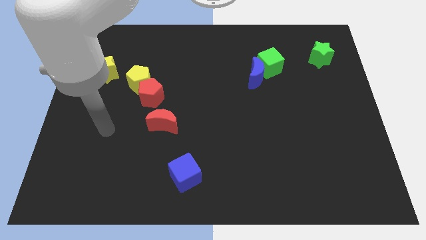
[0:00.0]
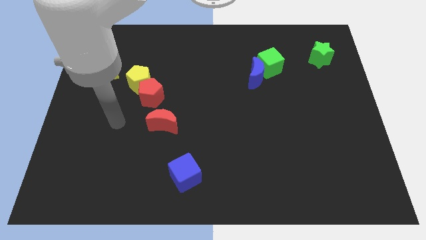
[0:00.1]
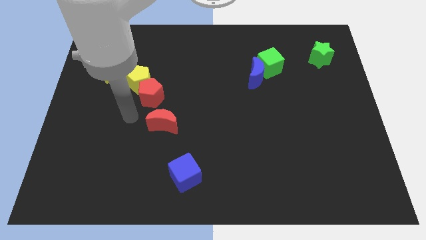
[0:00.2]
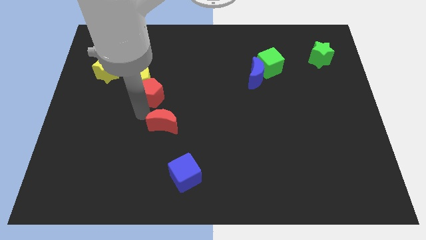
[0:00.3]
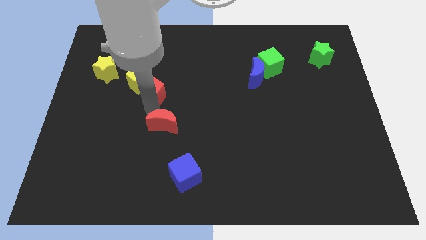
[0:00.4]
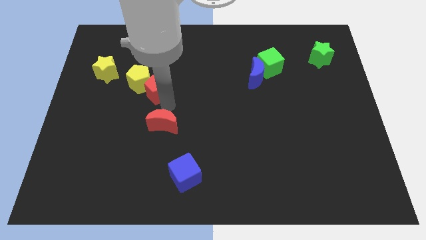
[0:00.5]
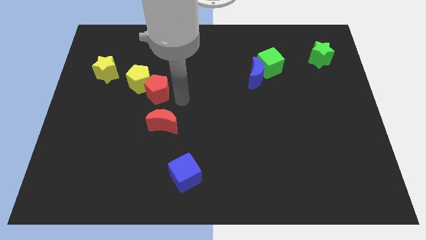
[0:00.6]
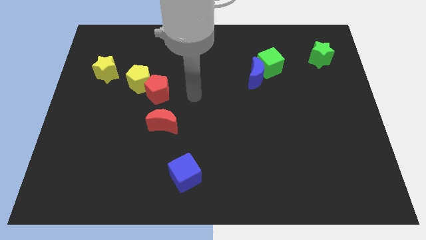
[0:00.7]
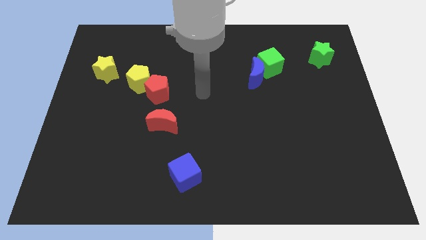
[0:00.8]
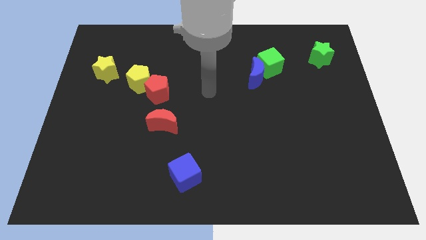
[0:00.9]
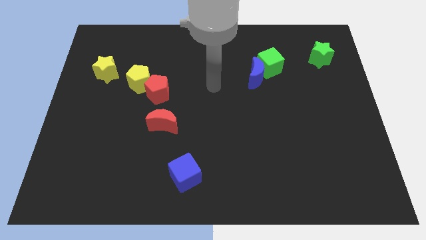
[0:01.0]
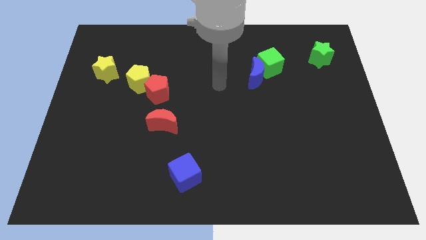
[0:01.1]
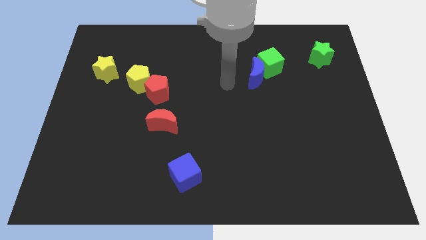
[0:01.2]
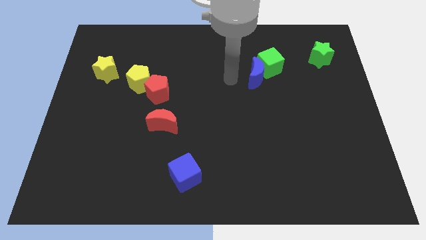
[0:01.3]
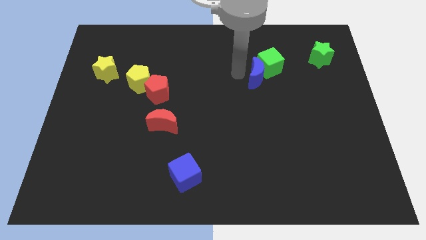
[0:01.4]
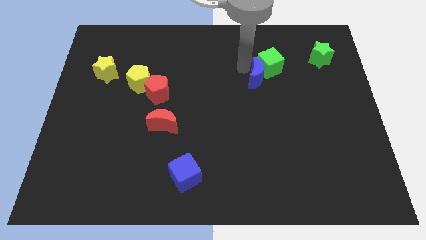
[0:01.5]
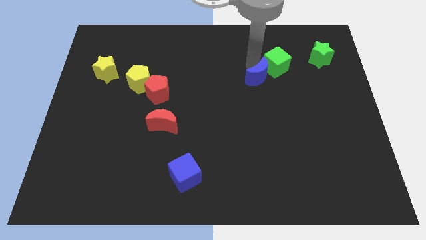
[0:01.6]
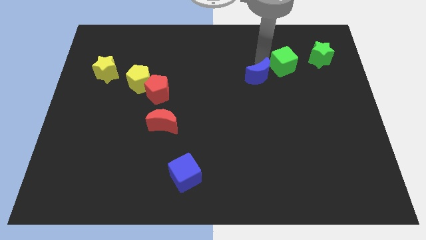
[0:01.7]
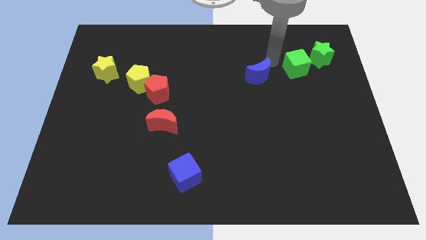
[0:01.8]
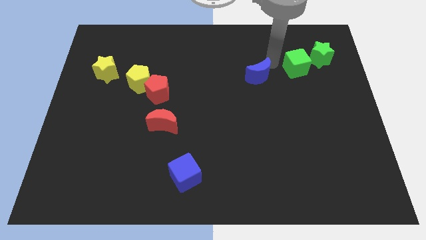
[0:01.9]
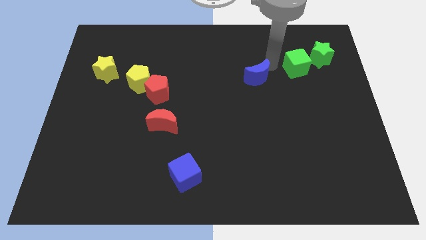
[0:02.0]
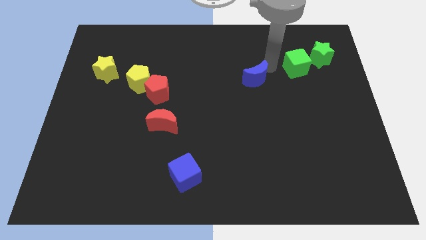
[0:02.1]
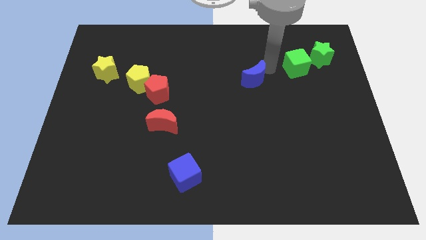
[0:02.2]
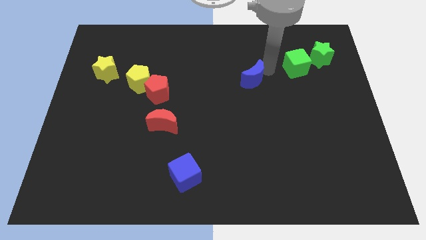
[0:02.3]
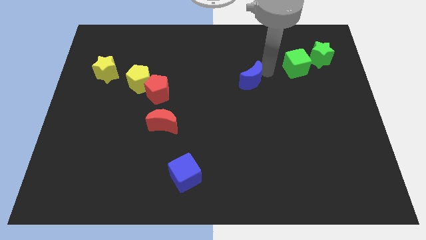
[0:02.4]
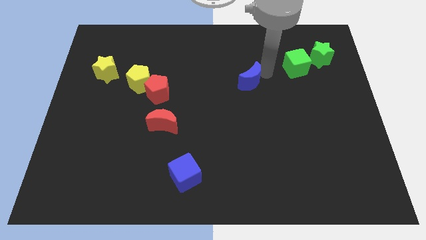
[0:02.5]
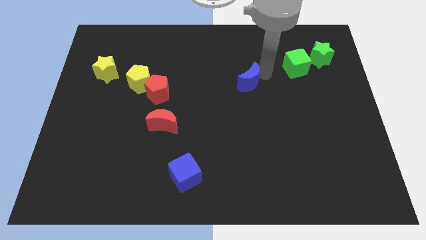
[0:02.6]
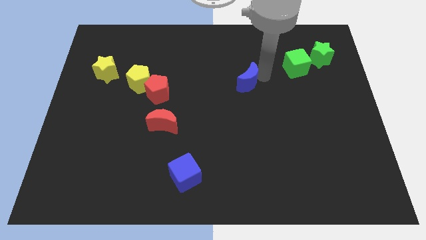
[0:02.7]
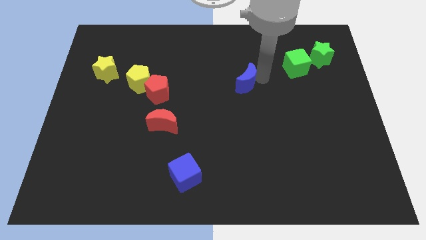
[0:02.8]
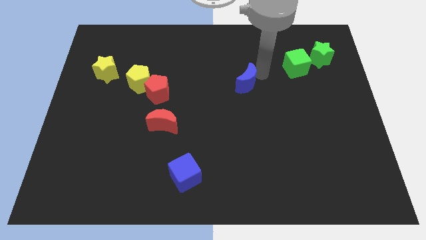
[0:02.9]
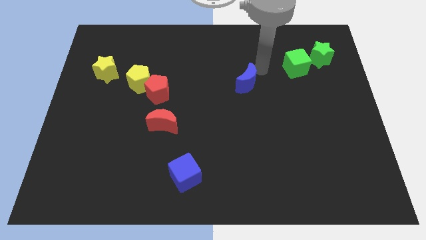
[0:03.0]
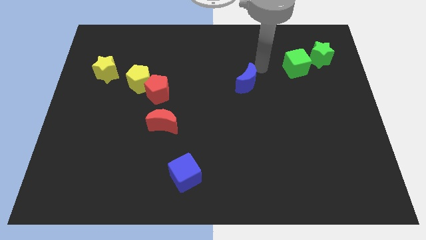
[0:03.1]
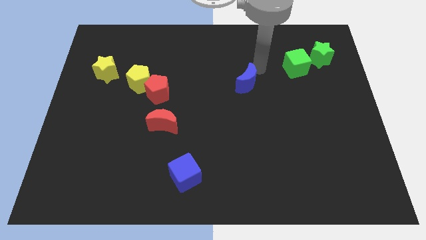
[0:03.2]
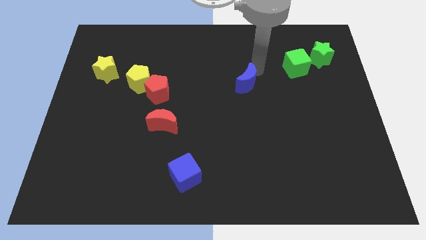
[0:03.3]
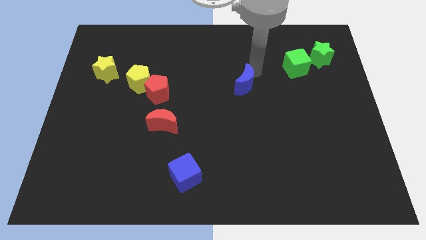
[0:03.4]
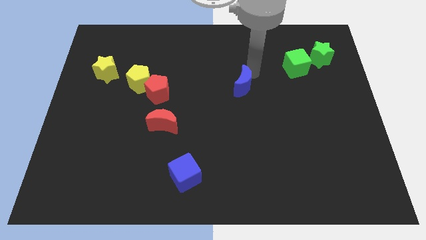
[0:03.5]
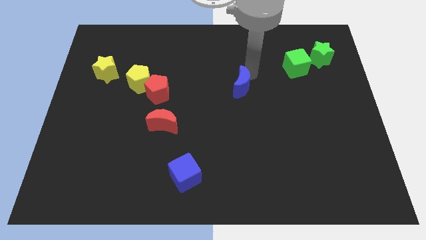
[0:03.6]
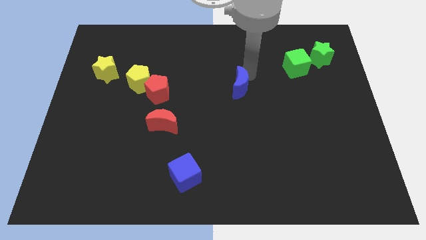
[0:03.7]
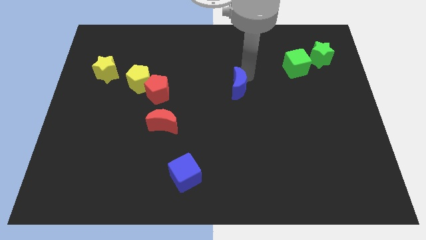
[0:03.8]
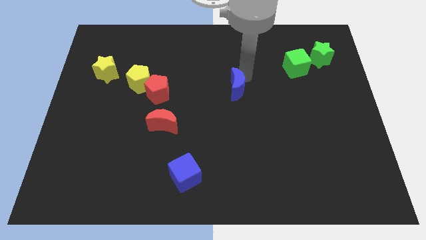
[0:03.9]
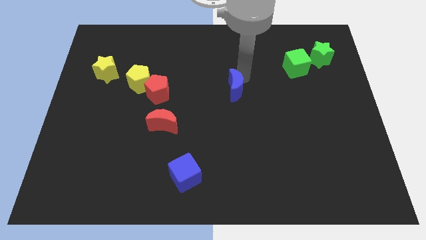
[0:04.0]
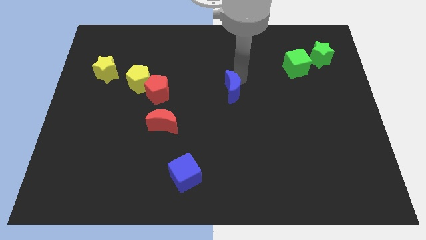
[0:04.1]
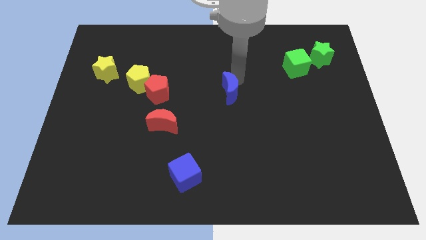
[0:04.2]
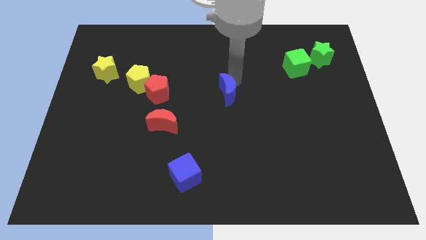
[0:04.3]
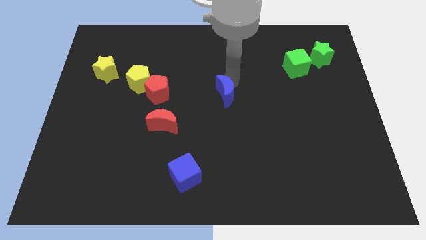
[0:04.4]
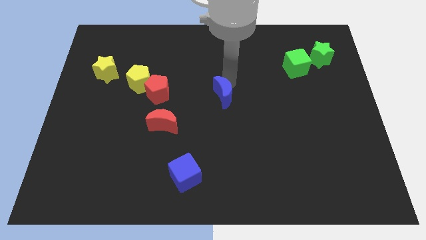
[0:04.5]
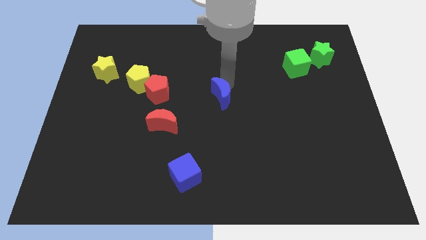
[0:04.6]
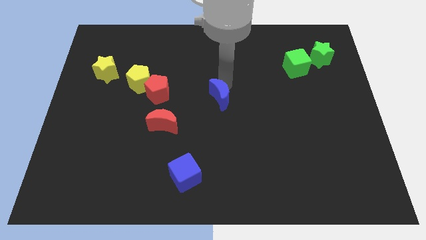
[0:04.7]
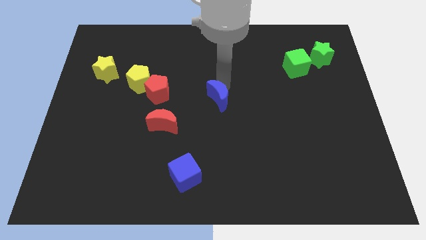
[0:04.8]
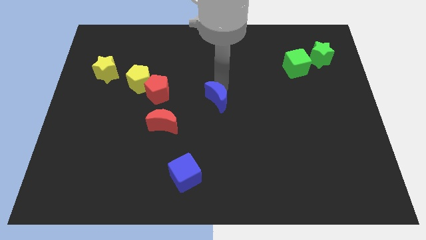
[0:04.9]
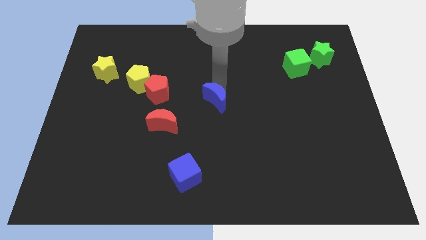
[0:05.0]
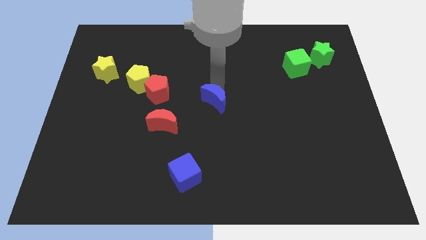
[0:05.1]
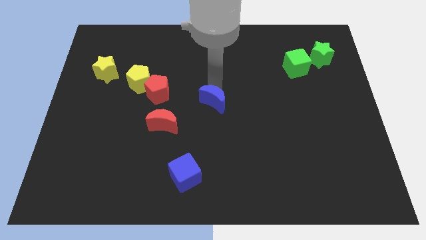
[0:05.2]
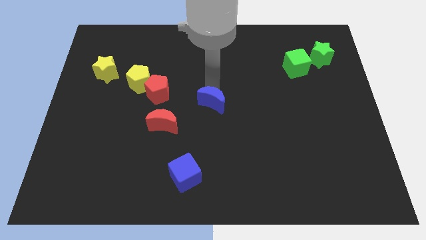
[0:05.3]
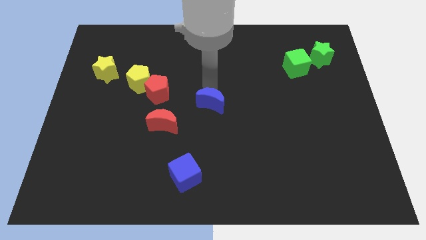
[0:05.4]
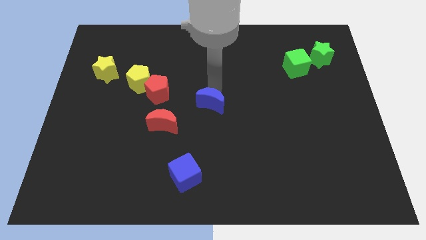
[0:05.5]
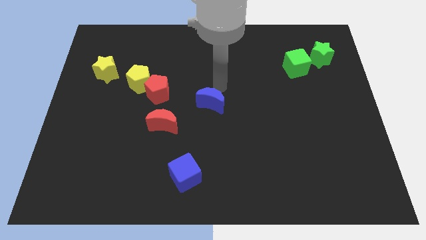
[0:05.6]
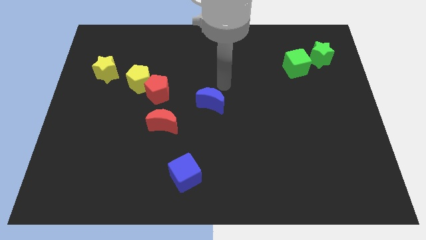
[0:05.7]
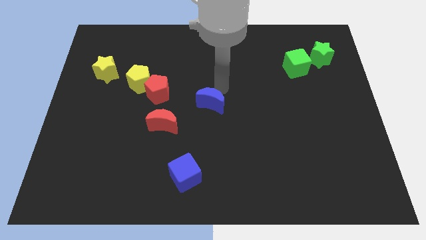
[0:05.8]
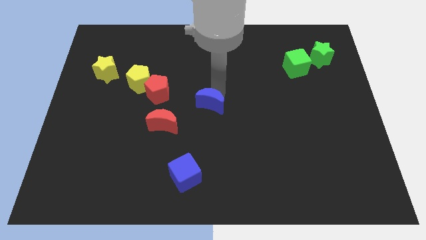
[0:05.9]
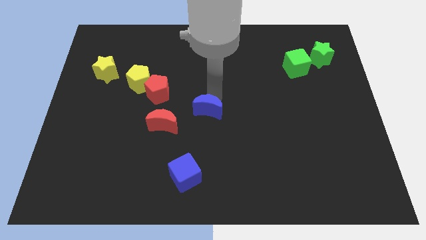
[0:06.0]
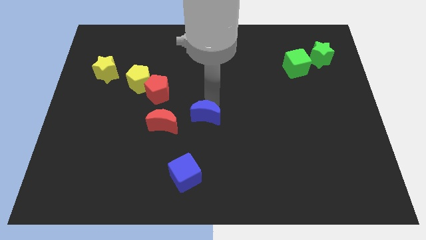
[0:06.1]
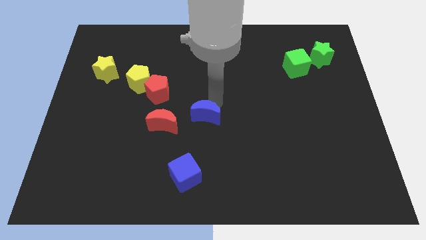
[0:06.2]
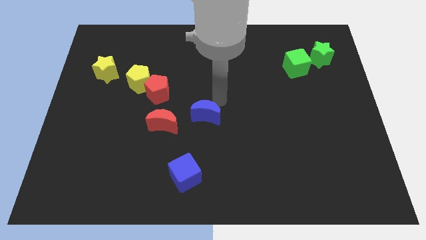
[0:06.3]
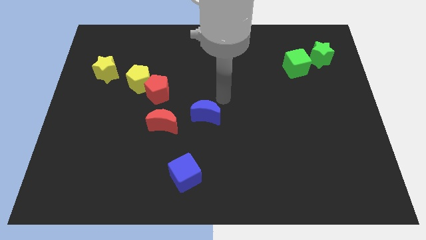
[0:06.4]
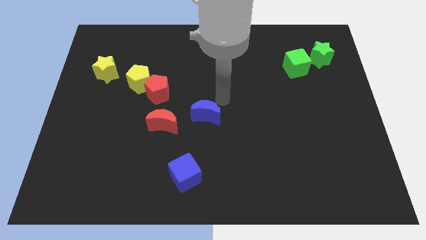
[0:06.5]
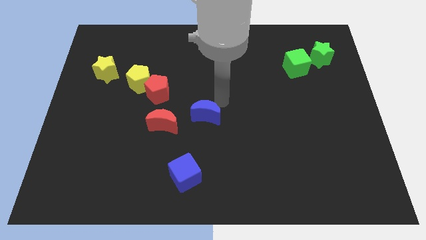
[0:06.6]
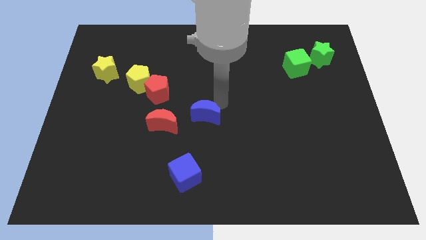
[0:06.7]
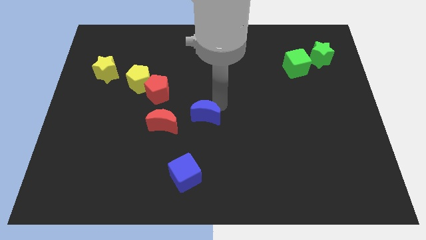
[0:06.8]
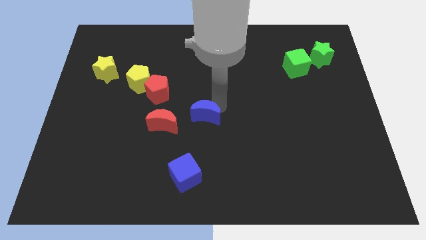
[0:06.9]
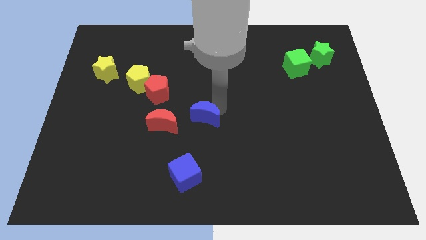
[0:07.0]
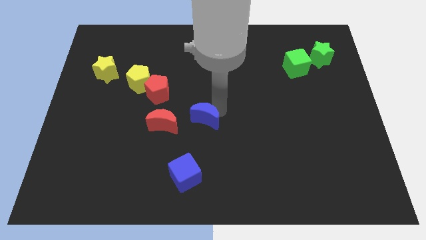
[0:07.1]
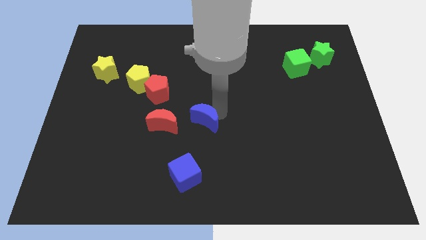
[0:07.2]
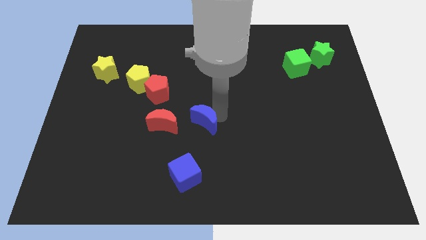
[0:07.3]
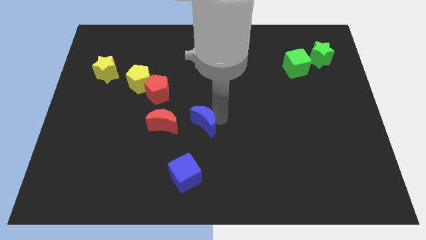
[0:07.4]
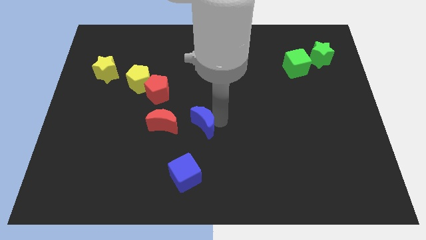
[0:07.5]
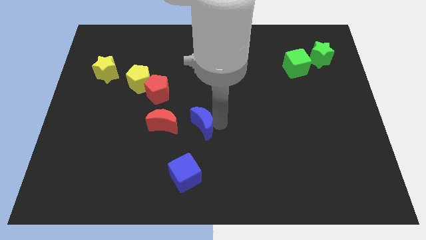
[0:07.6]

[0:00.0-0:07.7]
push the blue moon down and then left
